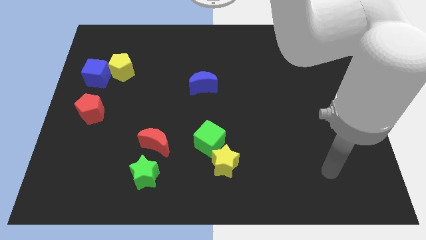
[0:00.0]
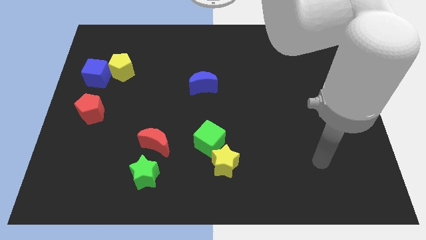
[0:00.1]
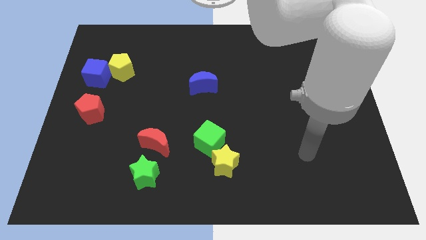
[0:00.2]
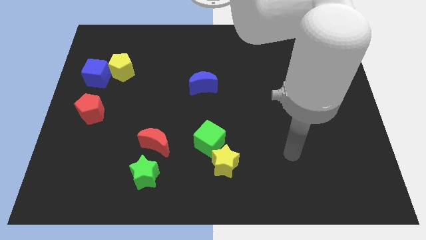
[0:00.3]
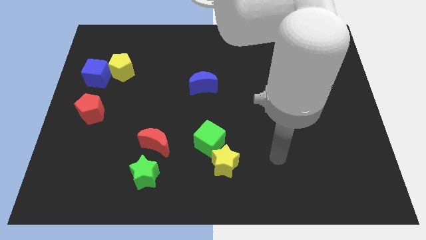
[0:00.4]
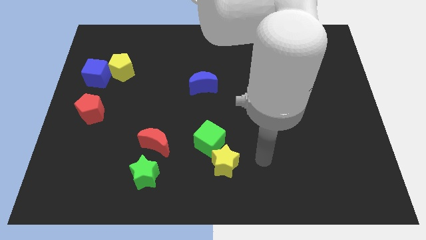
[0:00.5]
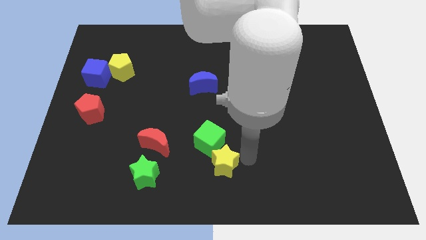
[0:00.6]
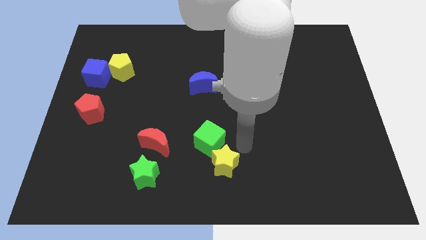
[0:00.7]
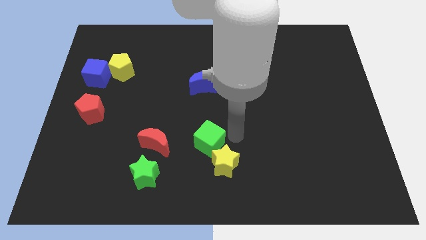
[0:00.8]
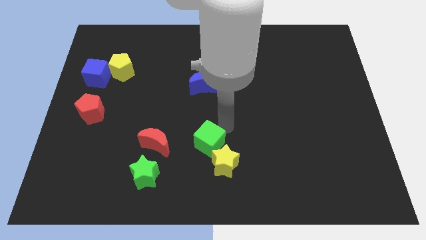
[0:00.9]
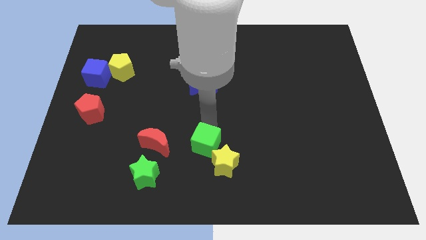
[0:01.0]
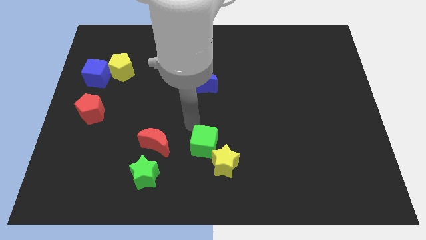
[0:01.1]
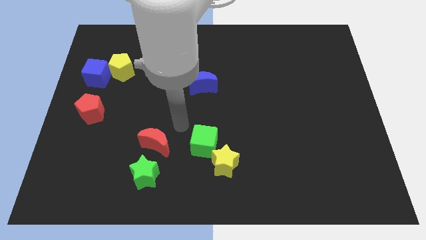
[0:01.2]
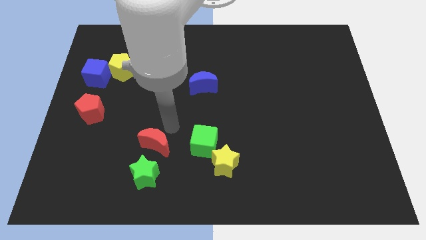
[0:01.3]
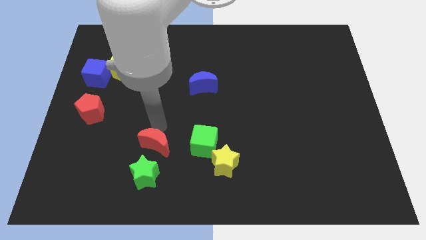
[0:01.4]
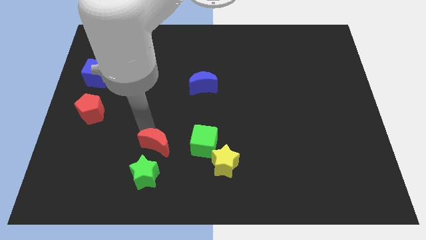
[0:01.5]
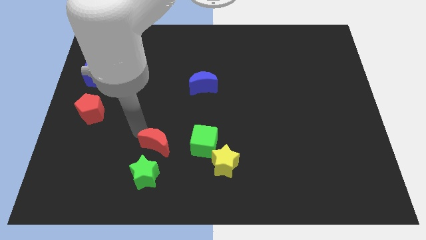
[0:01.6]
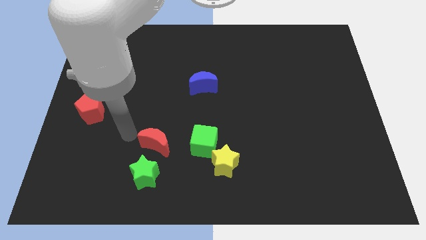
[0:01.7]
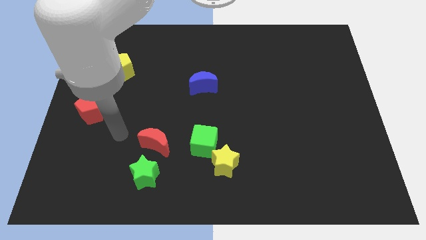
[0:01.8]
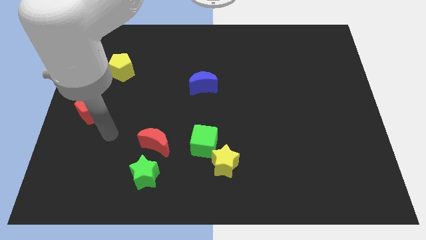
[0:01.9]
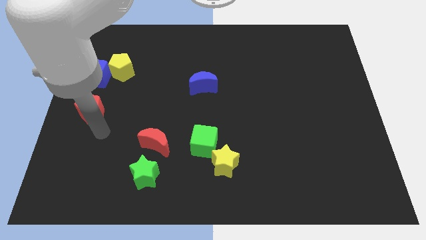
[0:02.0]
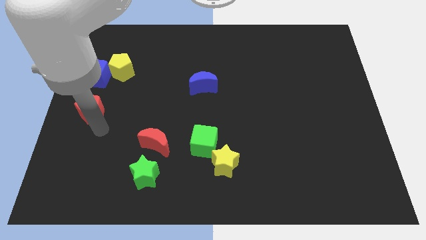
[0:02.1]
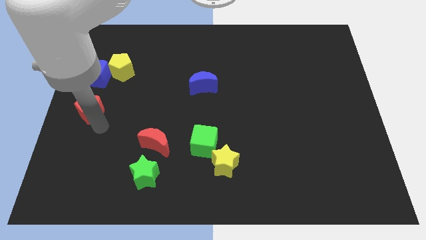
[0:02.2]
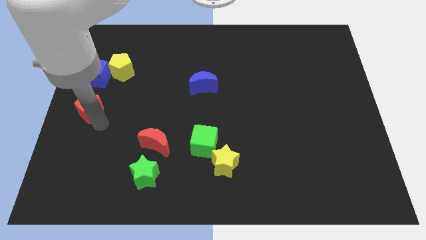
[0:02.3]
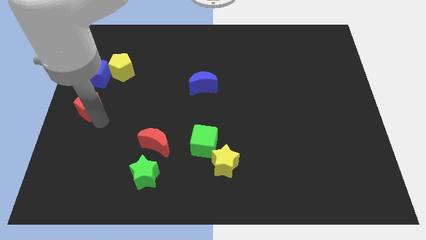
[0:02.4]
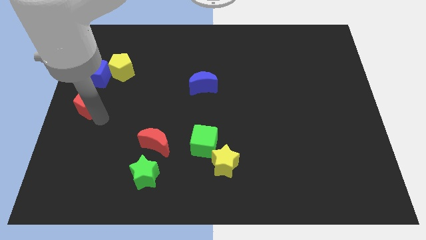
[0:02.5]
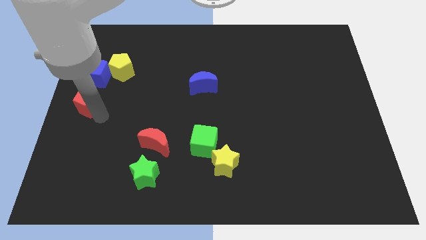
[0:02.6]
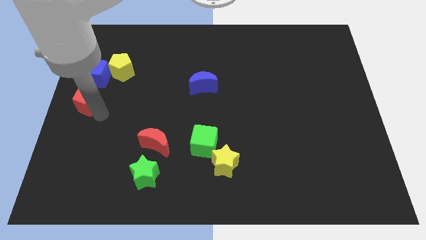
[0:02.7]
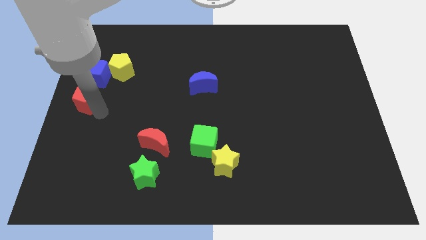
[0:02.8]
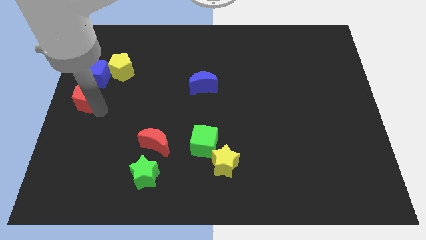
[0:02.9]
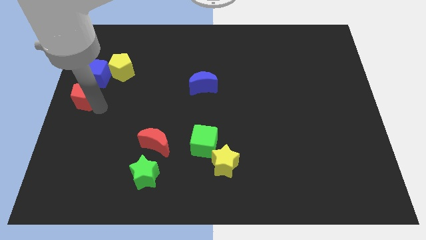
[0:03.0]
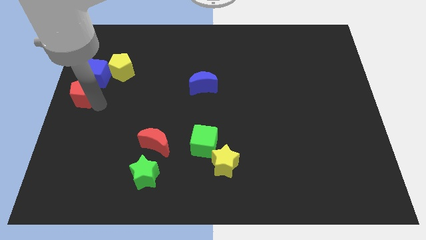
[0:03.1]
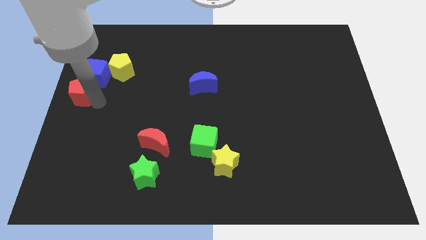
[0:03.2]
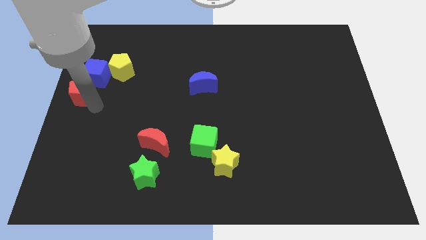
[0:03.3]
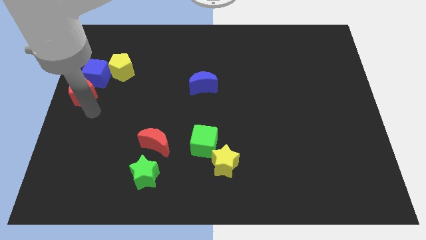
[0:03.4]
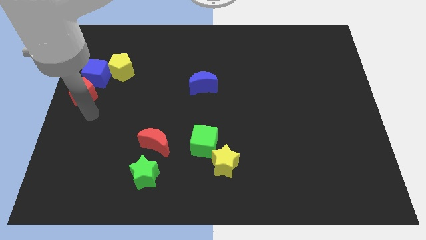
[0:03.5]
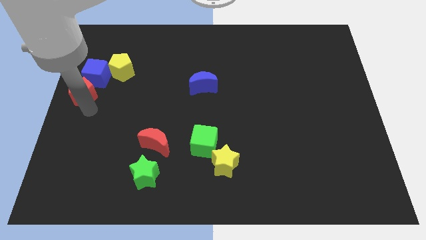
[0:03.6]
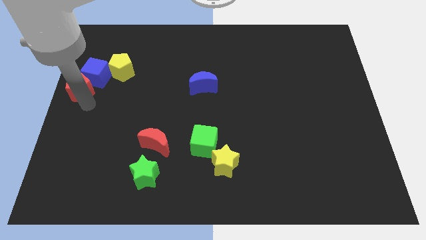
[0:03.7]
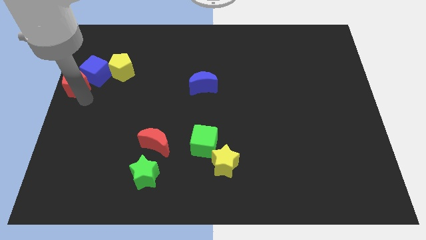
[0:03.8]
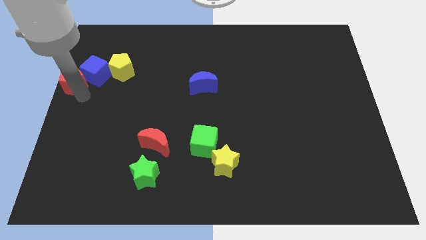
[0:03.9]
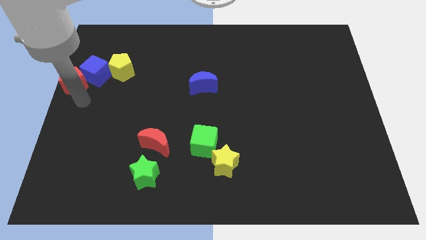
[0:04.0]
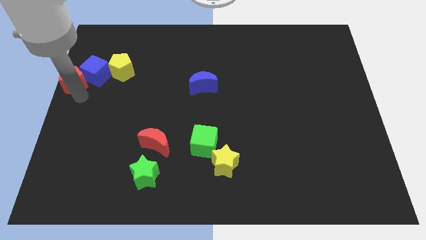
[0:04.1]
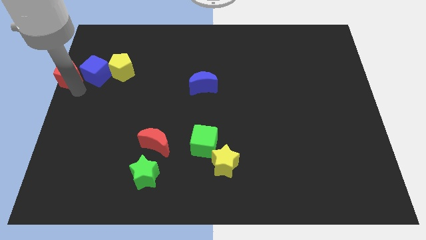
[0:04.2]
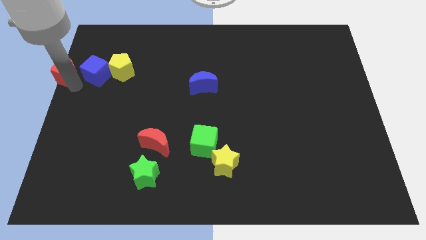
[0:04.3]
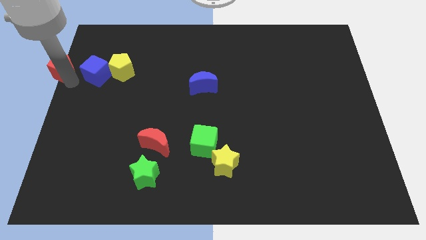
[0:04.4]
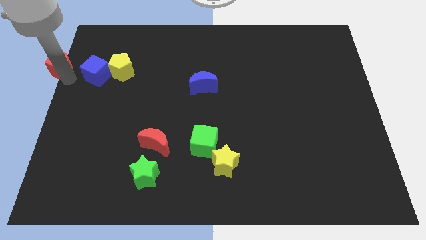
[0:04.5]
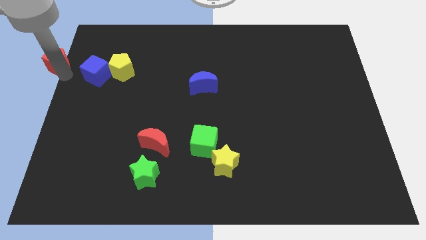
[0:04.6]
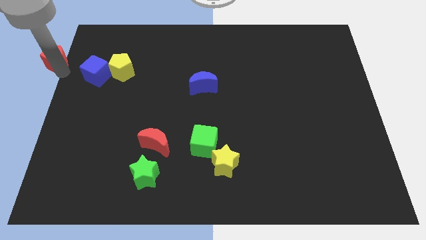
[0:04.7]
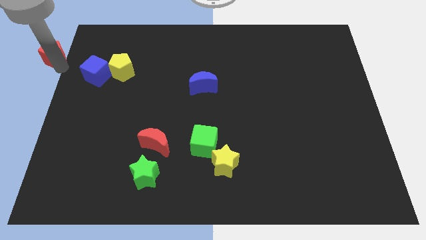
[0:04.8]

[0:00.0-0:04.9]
put the red pentagon to the top left

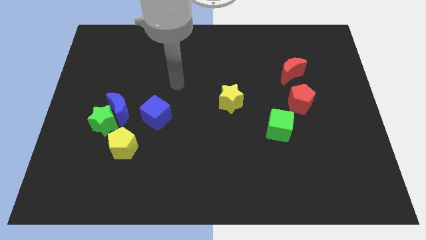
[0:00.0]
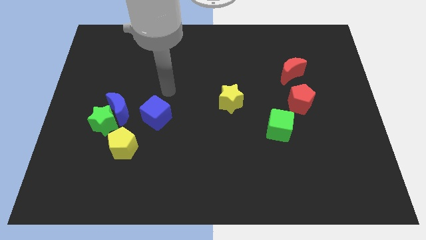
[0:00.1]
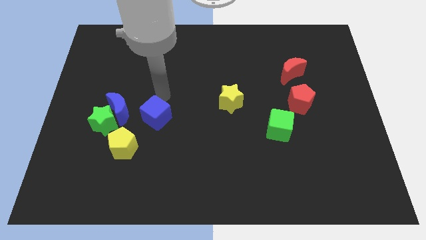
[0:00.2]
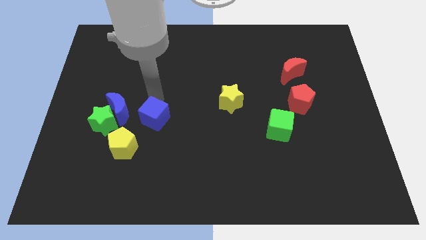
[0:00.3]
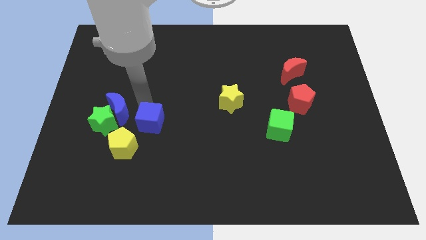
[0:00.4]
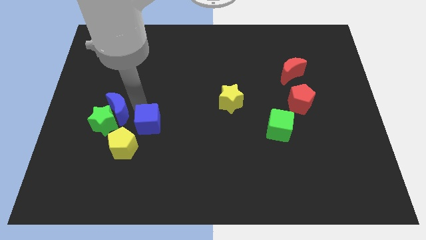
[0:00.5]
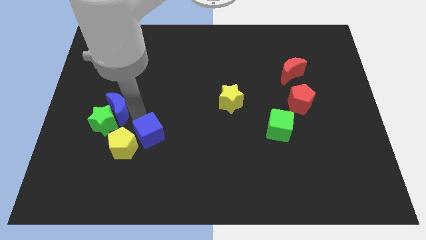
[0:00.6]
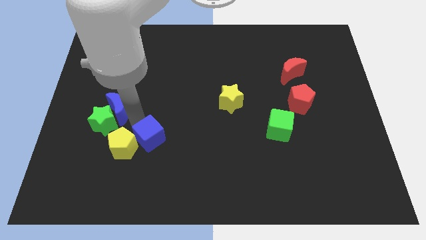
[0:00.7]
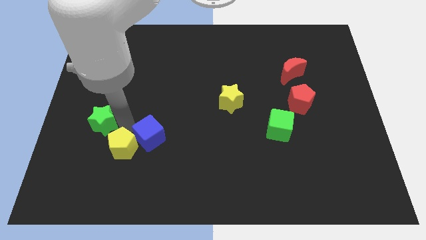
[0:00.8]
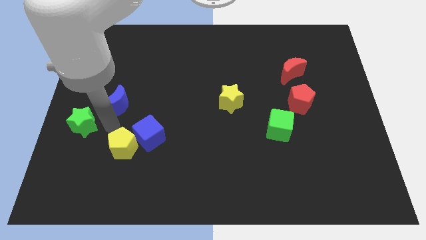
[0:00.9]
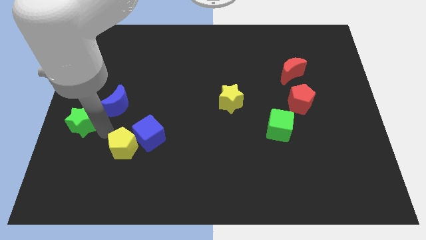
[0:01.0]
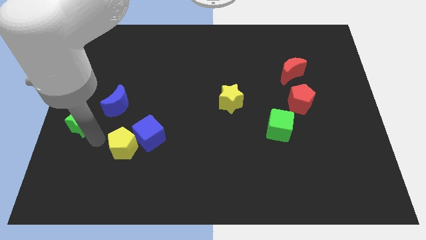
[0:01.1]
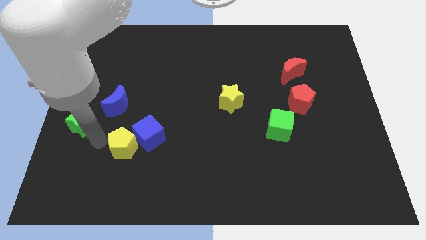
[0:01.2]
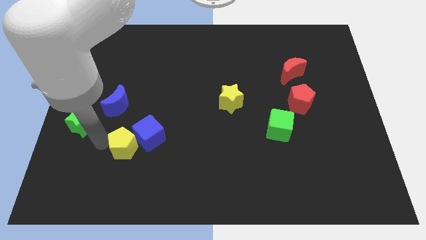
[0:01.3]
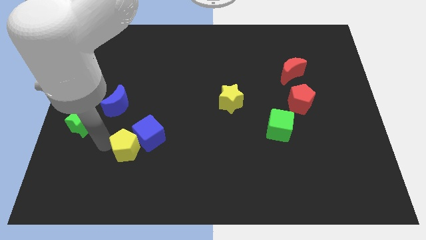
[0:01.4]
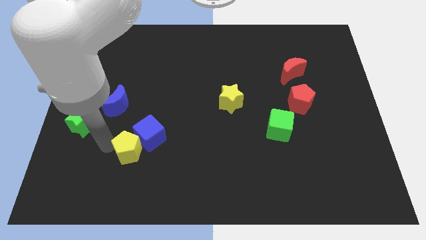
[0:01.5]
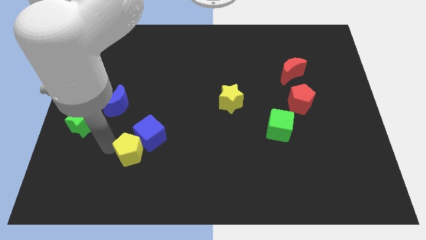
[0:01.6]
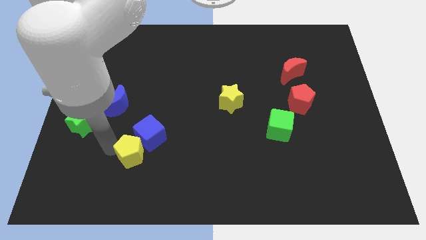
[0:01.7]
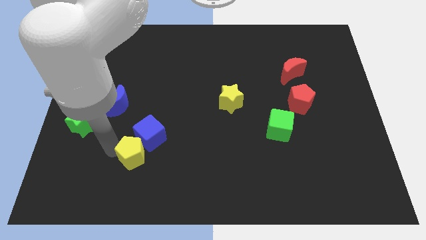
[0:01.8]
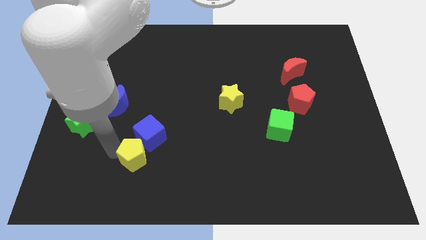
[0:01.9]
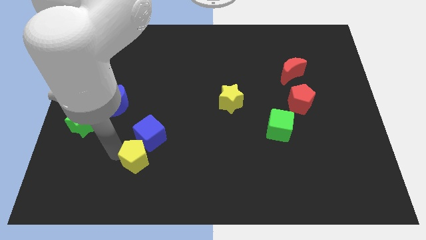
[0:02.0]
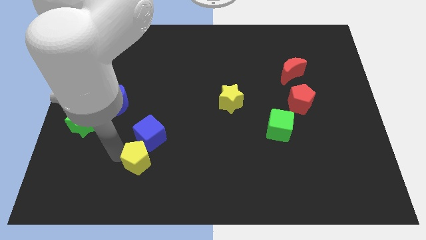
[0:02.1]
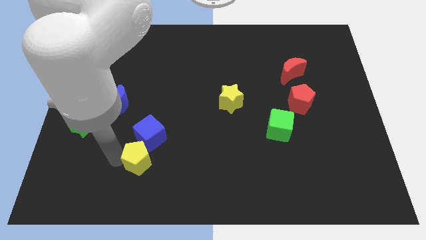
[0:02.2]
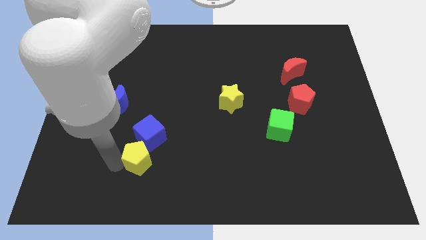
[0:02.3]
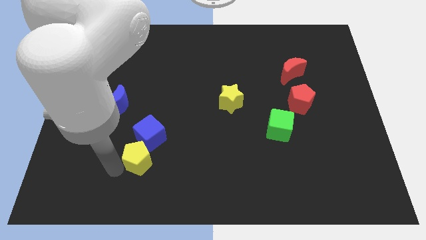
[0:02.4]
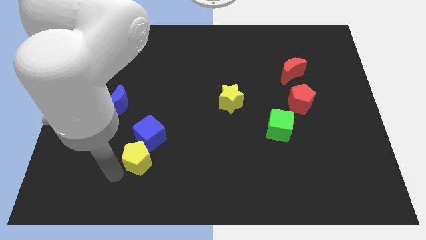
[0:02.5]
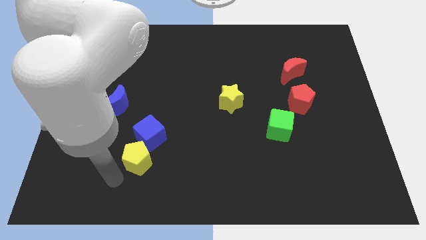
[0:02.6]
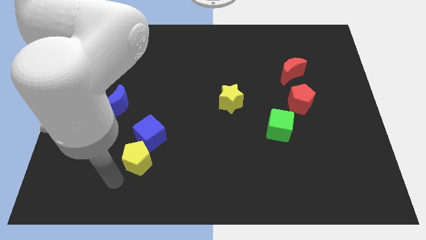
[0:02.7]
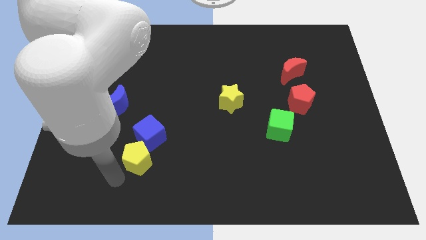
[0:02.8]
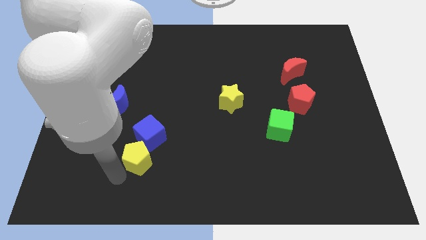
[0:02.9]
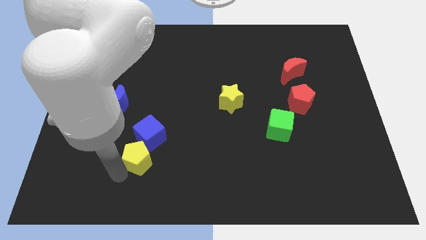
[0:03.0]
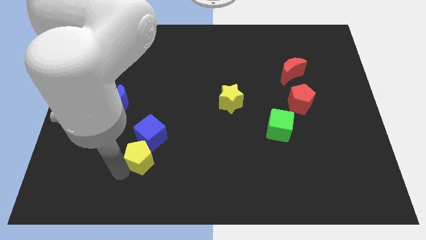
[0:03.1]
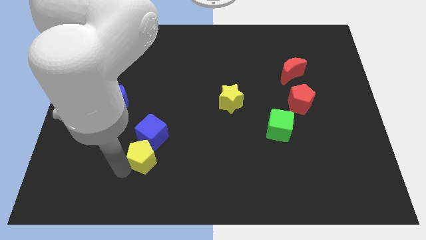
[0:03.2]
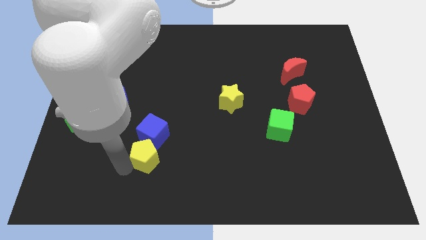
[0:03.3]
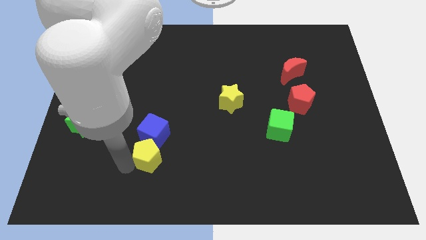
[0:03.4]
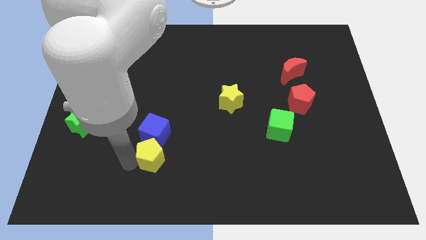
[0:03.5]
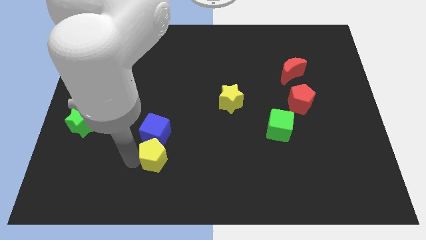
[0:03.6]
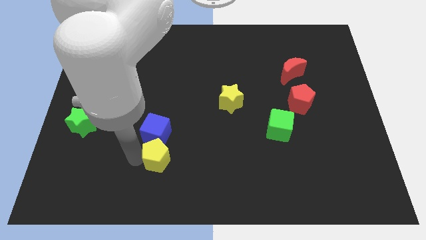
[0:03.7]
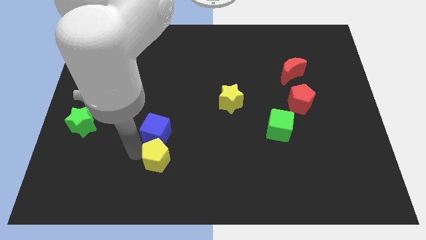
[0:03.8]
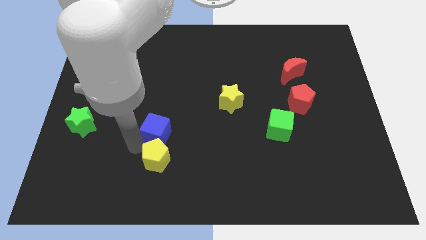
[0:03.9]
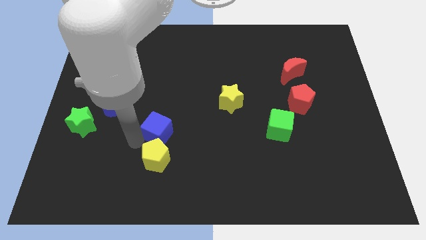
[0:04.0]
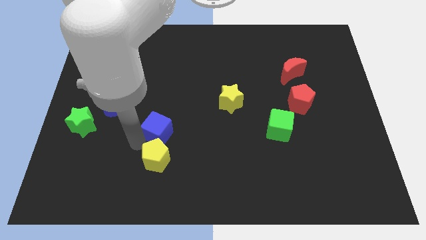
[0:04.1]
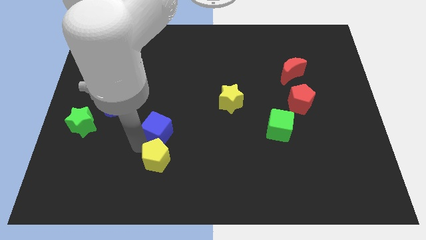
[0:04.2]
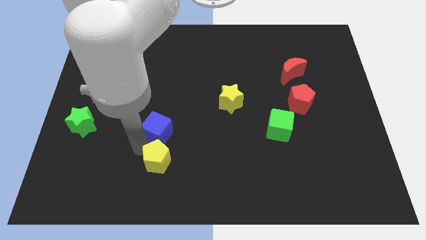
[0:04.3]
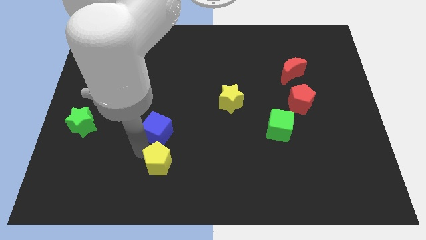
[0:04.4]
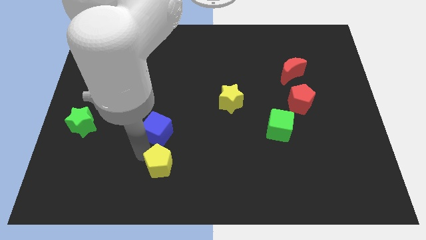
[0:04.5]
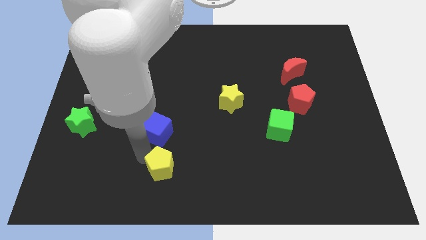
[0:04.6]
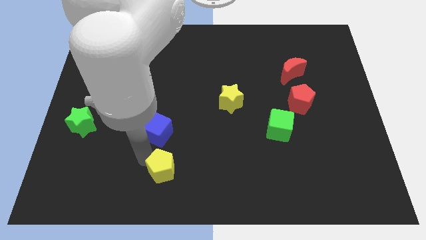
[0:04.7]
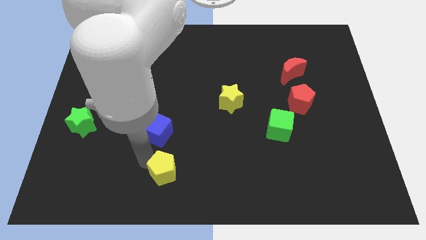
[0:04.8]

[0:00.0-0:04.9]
move the yellow pentagon to the bottom
